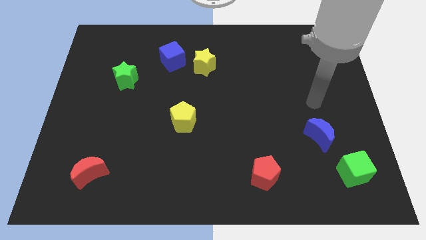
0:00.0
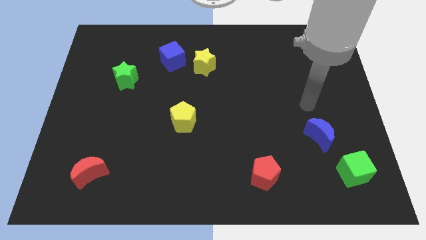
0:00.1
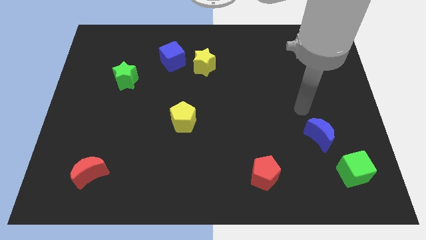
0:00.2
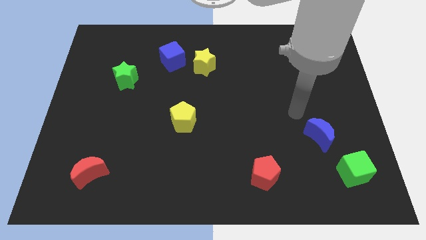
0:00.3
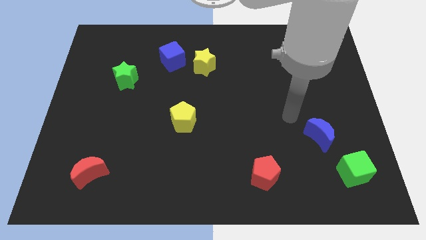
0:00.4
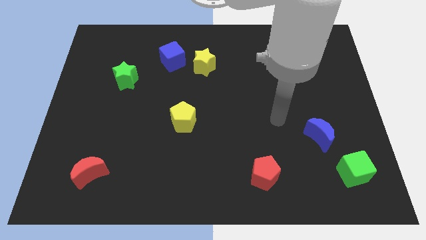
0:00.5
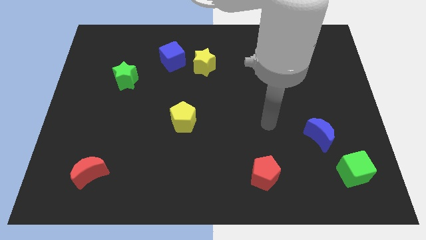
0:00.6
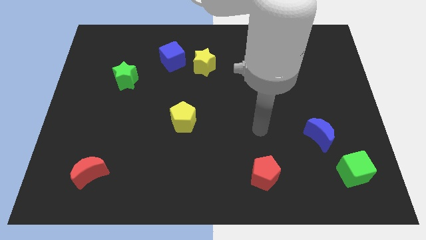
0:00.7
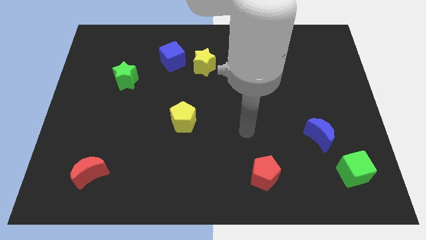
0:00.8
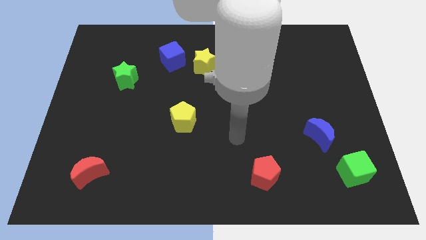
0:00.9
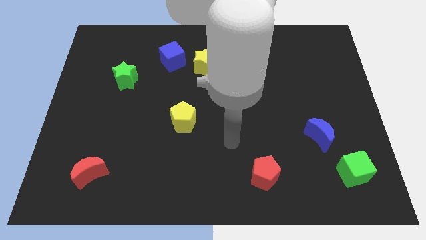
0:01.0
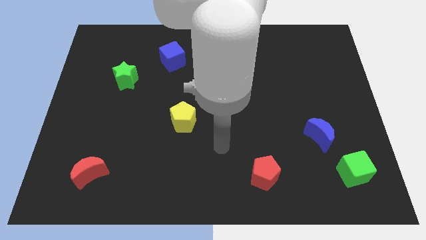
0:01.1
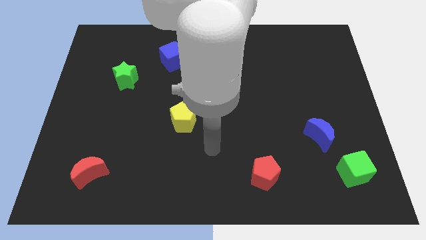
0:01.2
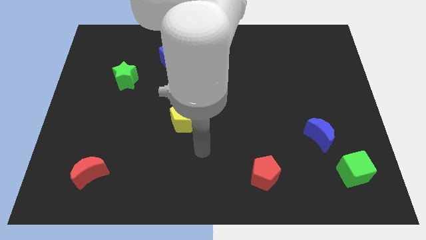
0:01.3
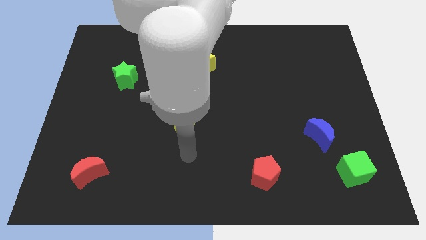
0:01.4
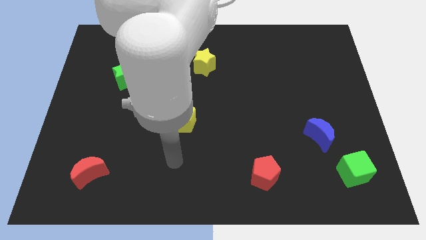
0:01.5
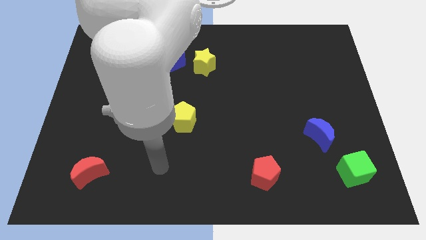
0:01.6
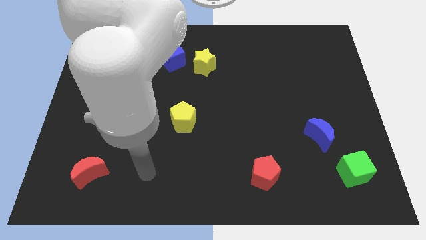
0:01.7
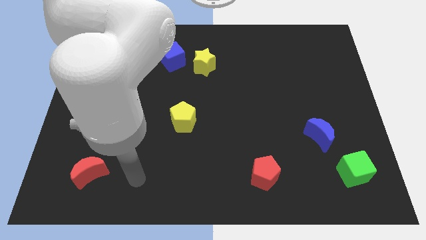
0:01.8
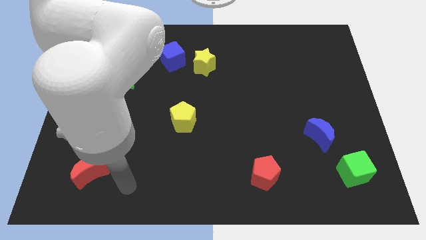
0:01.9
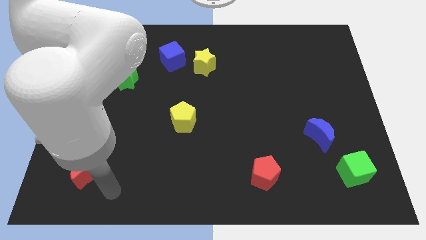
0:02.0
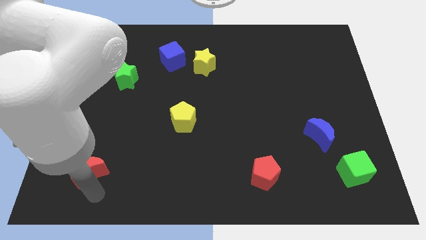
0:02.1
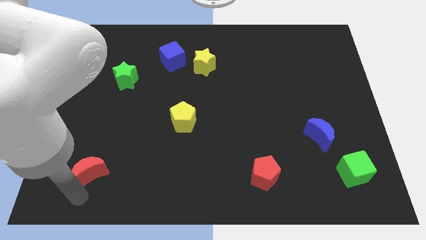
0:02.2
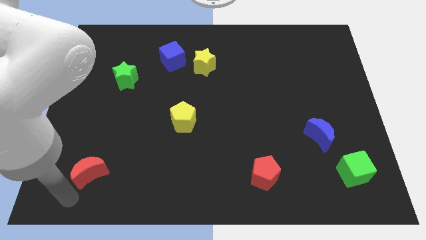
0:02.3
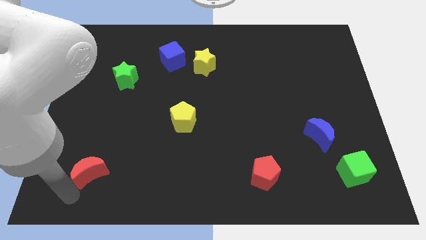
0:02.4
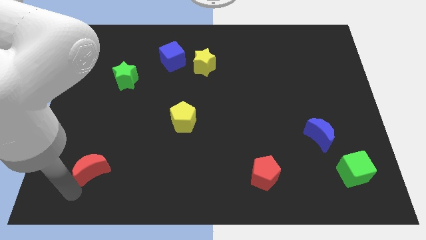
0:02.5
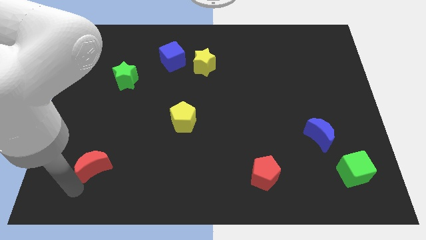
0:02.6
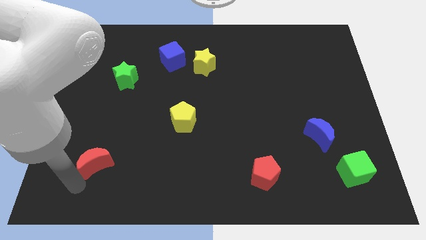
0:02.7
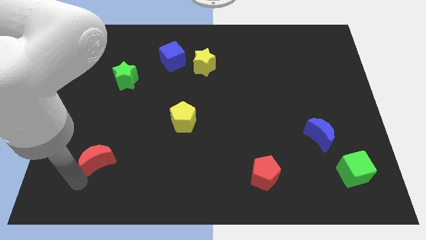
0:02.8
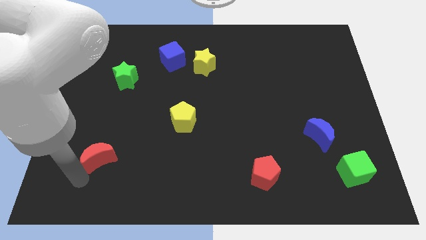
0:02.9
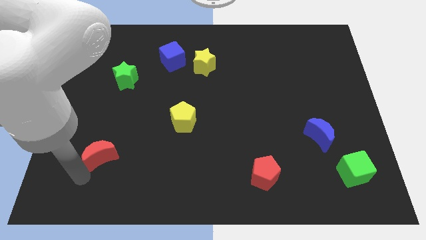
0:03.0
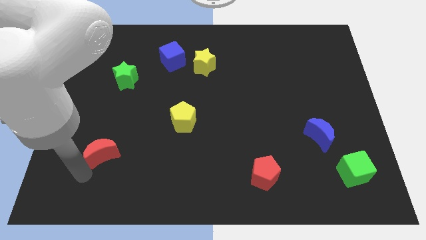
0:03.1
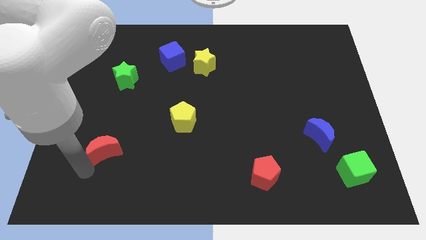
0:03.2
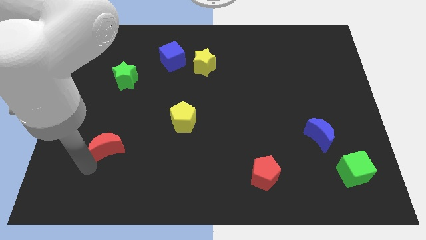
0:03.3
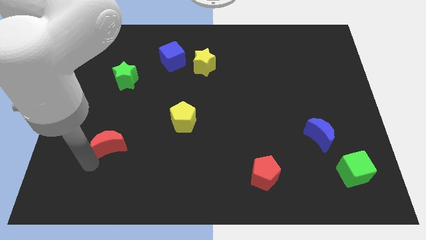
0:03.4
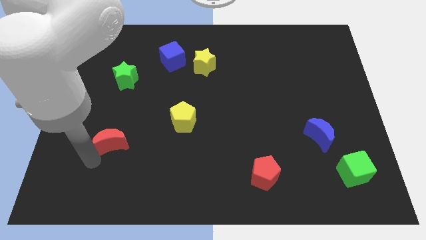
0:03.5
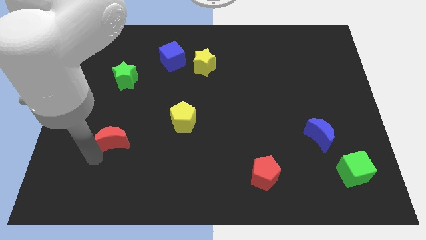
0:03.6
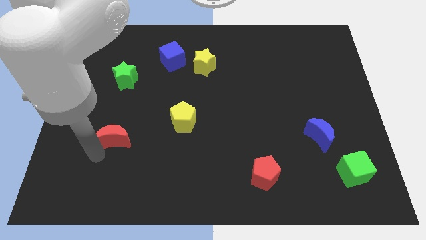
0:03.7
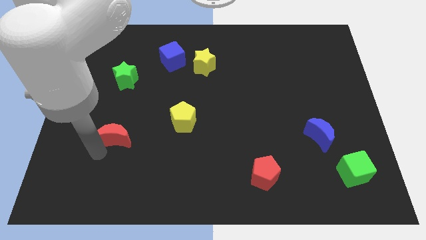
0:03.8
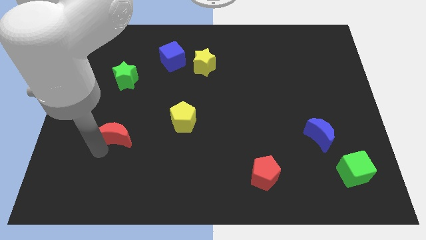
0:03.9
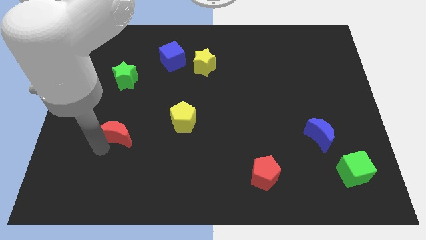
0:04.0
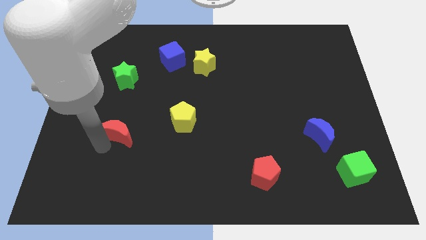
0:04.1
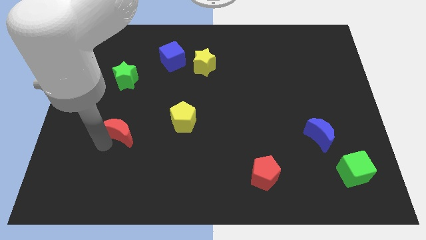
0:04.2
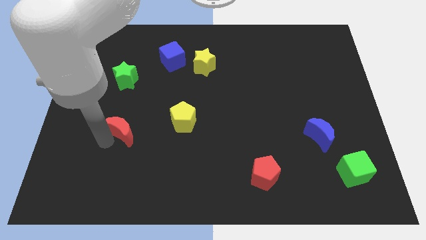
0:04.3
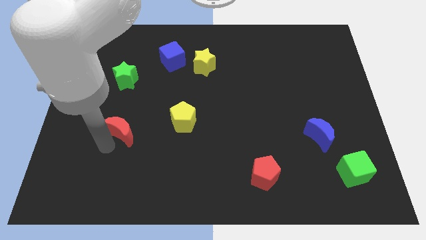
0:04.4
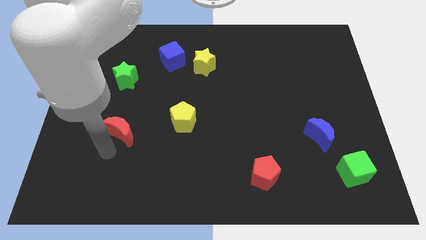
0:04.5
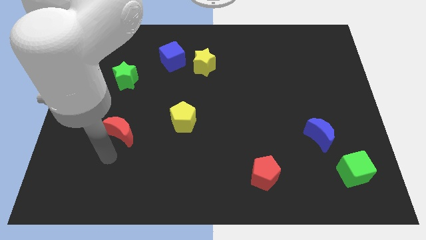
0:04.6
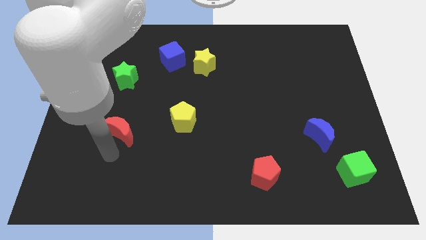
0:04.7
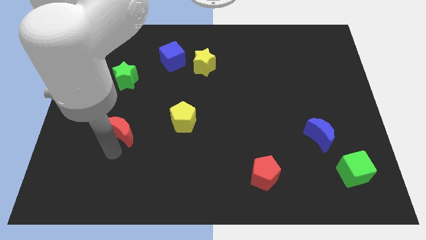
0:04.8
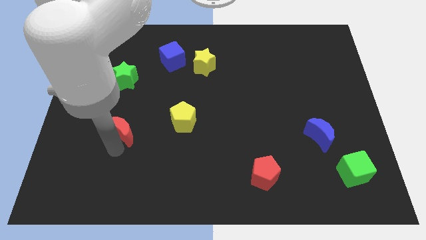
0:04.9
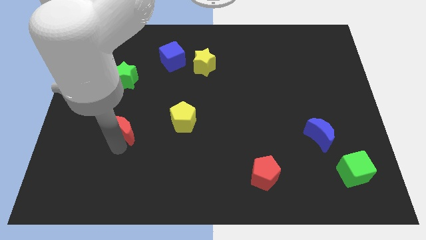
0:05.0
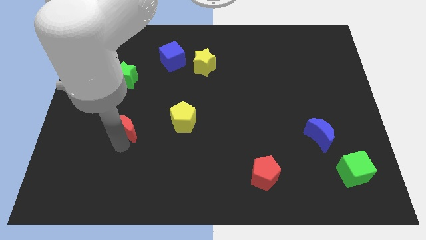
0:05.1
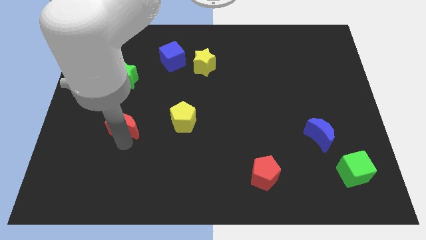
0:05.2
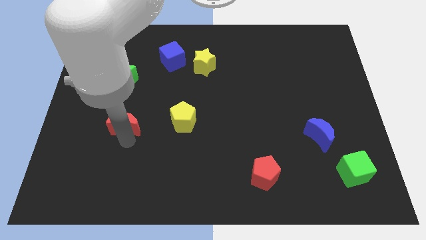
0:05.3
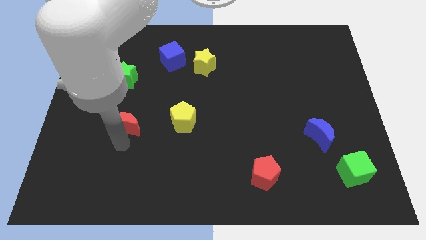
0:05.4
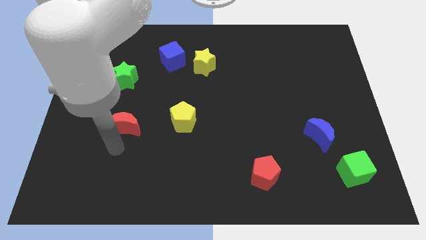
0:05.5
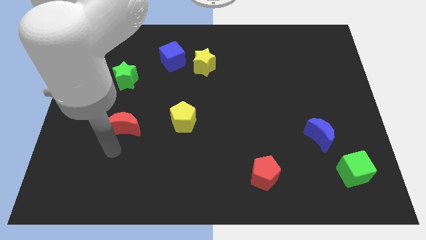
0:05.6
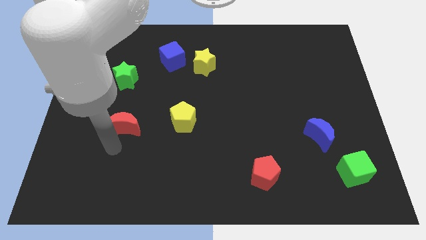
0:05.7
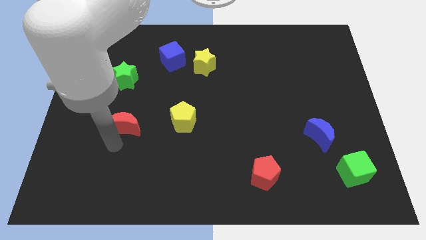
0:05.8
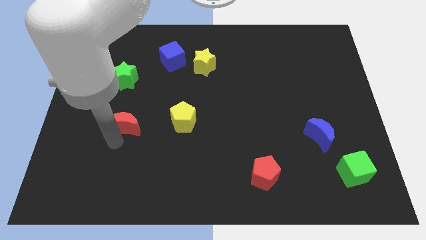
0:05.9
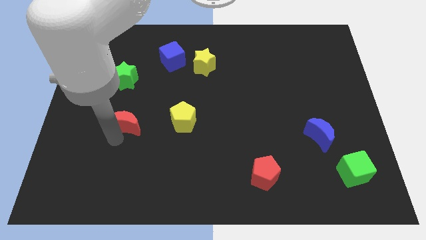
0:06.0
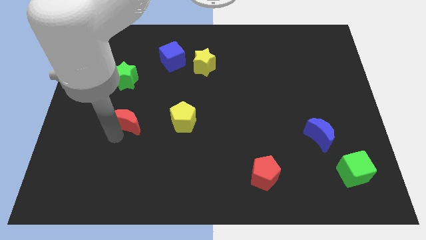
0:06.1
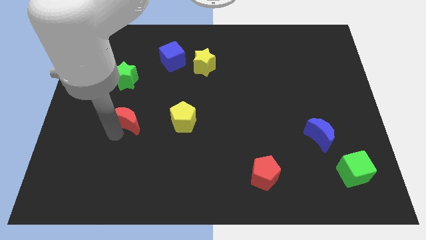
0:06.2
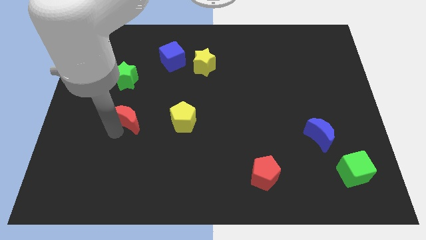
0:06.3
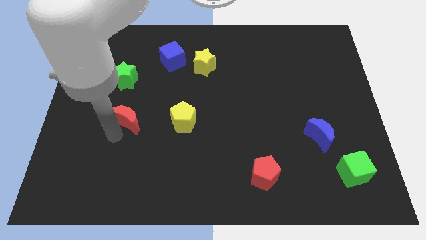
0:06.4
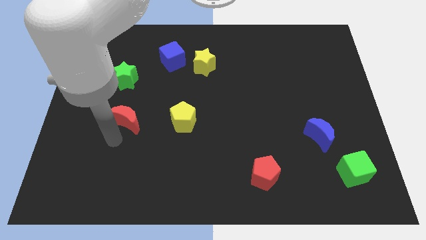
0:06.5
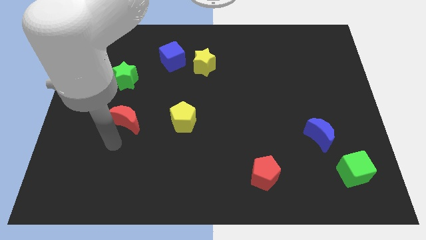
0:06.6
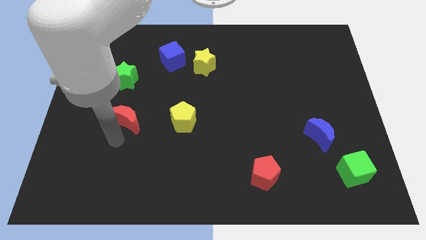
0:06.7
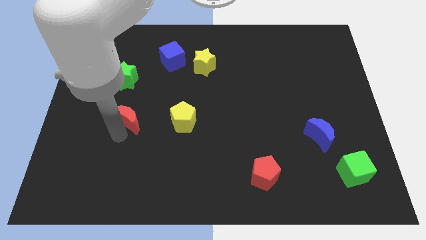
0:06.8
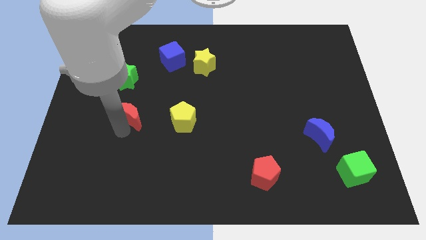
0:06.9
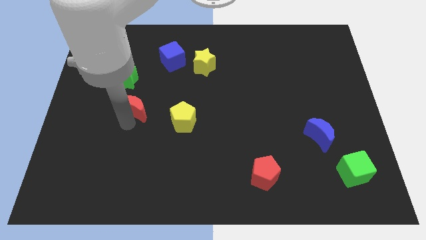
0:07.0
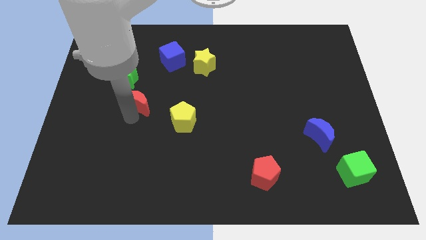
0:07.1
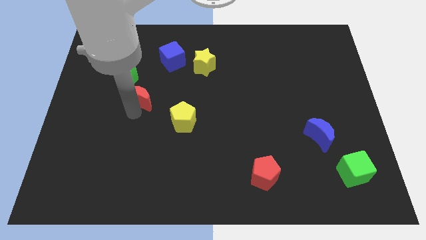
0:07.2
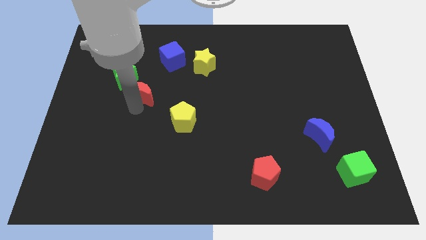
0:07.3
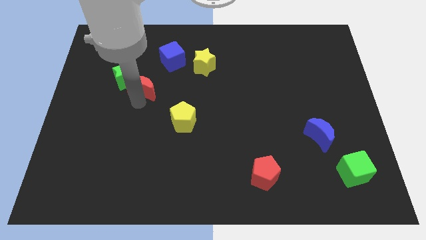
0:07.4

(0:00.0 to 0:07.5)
move the red moon diagonally down and to the left of the blue cube
